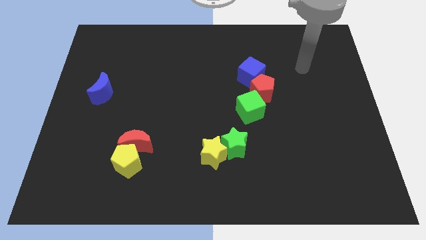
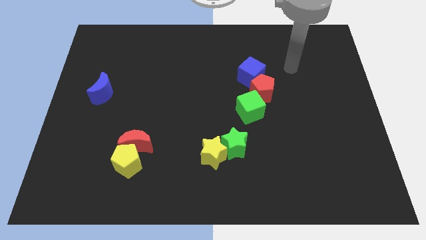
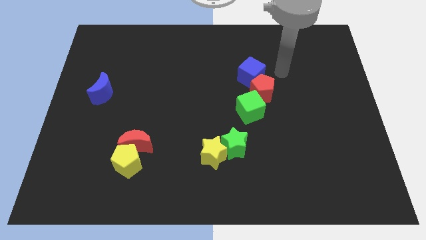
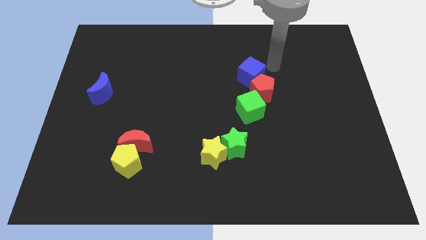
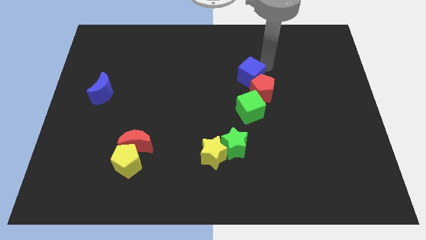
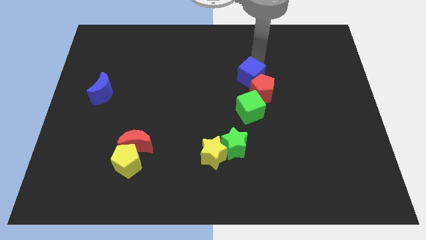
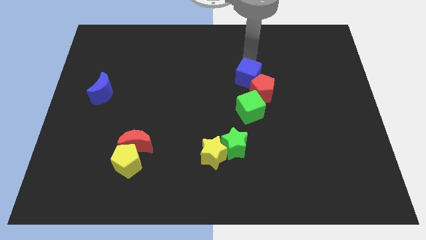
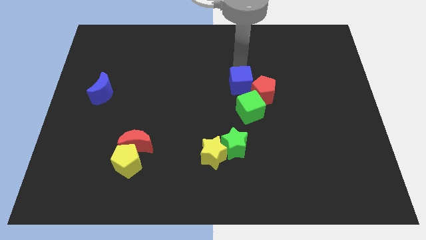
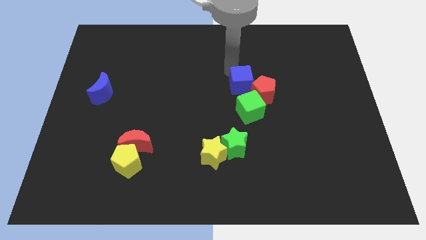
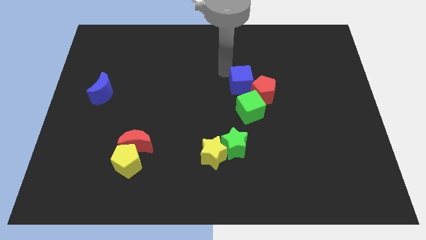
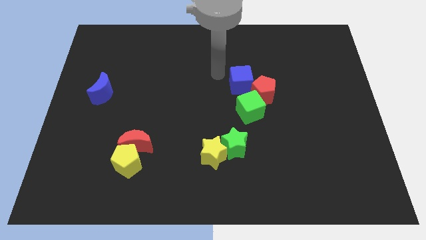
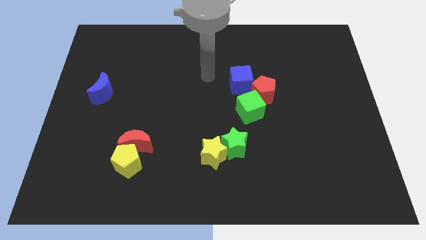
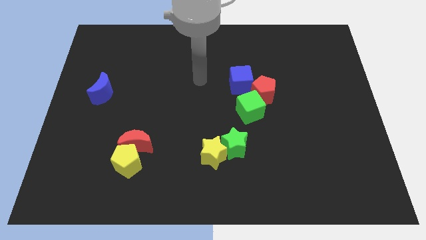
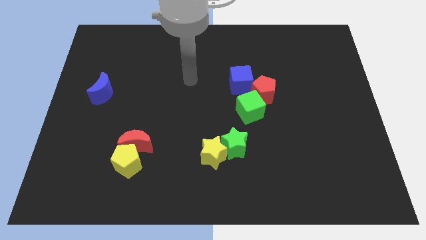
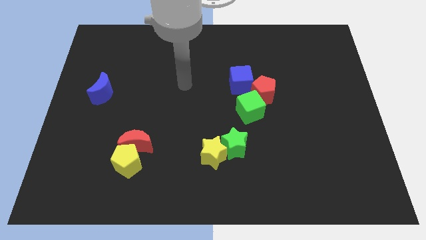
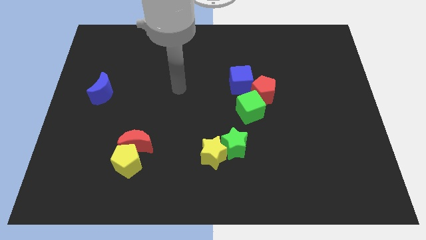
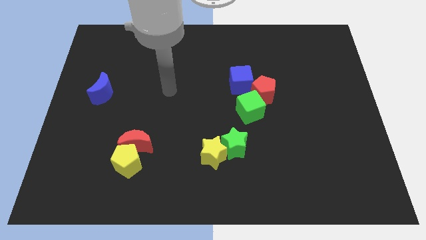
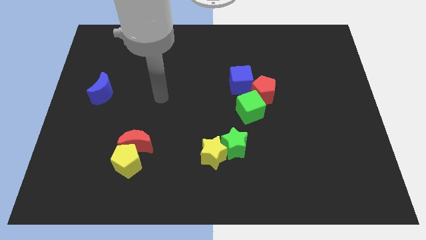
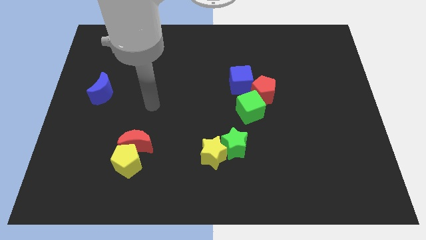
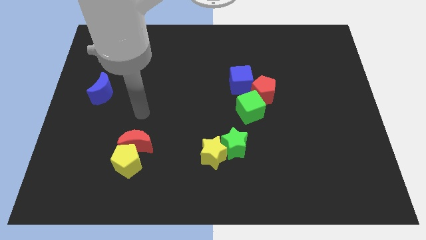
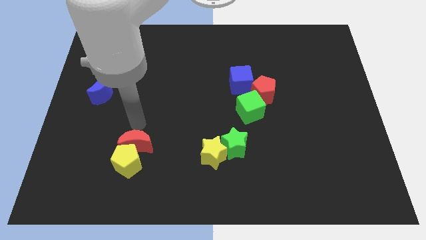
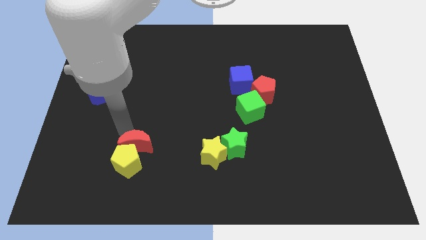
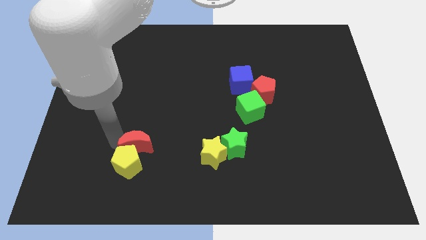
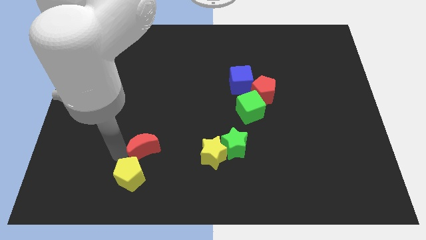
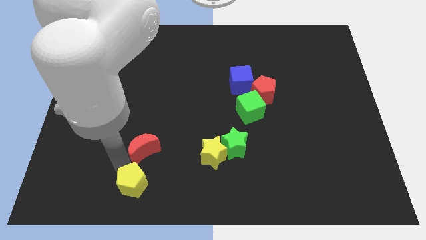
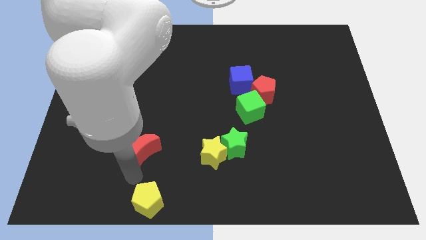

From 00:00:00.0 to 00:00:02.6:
move the red moon away from the yellow pentagon

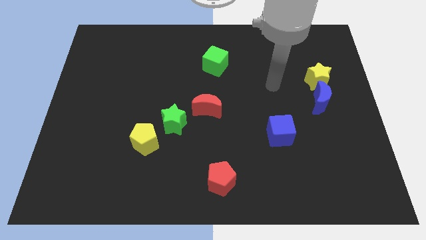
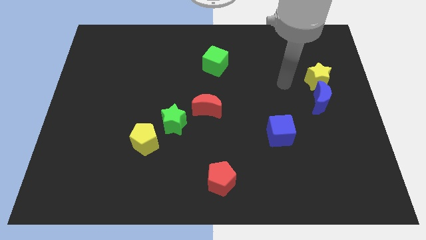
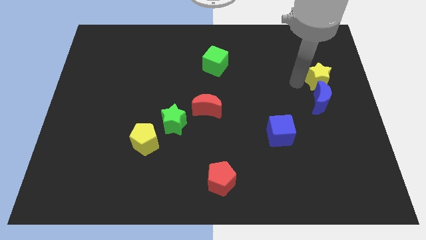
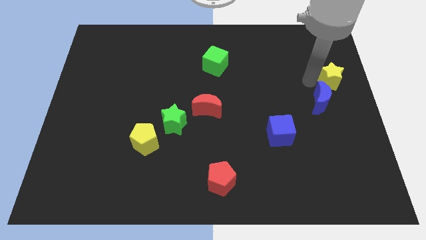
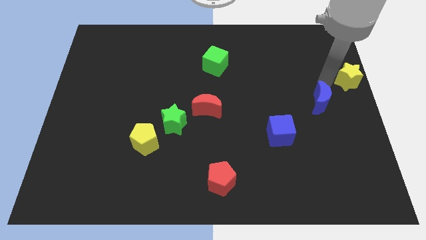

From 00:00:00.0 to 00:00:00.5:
move the blue moon away from the yellow star

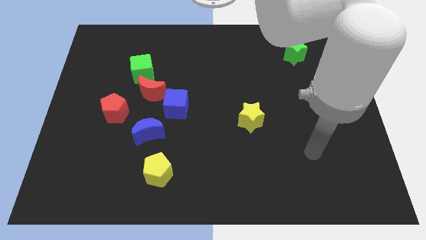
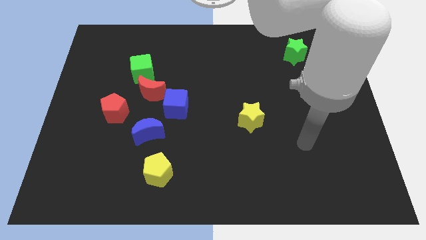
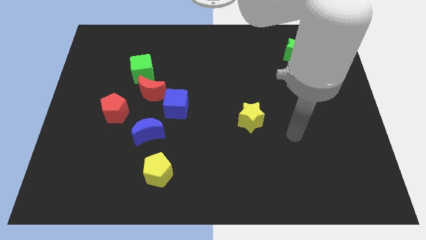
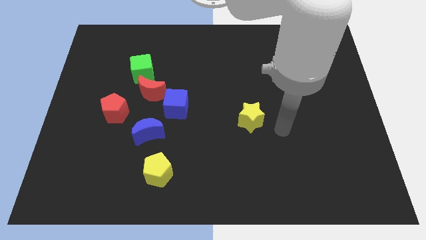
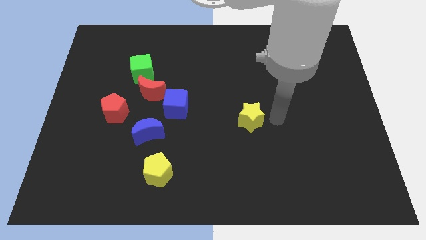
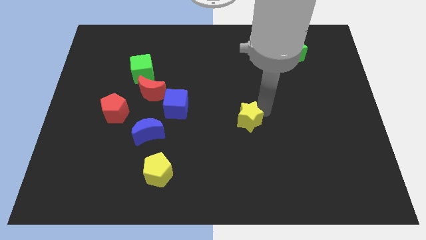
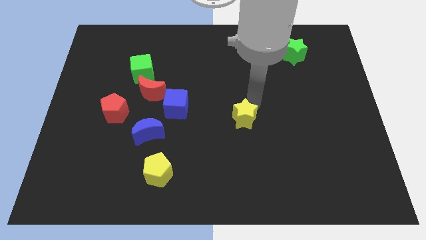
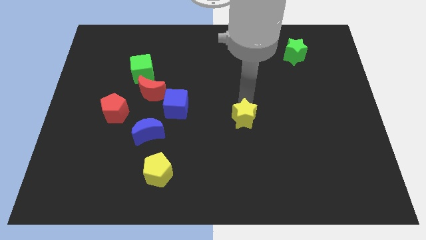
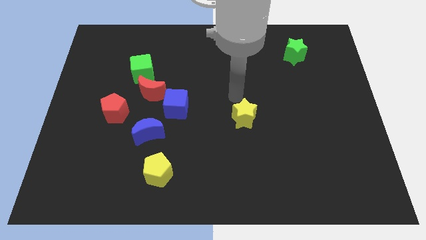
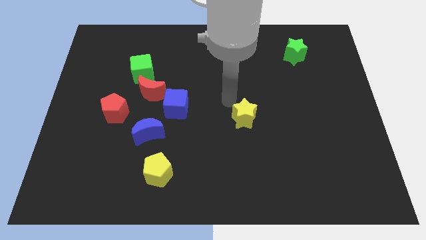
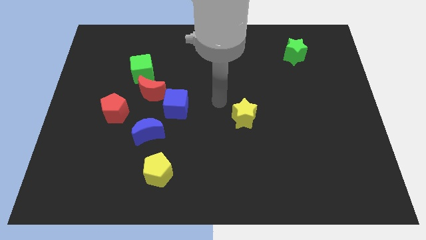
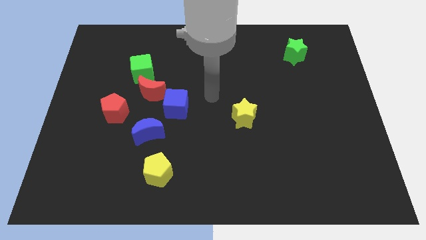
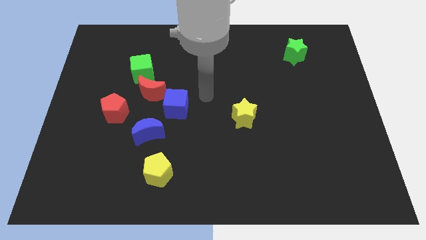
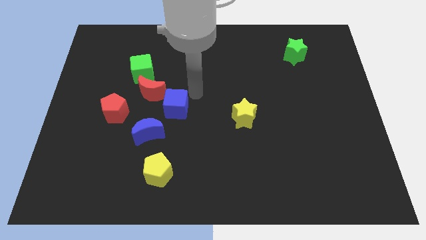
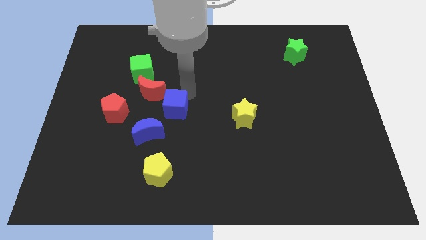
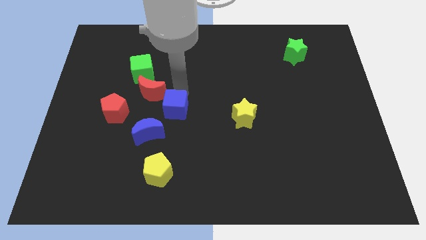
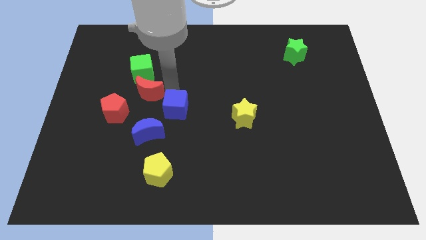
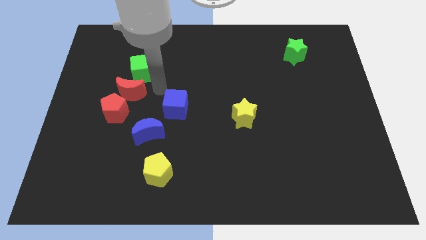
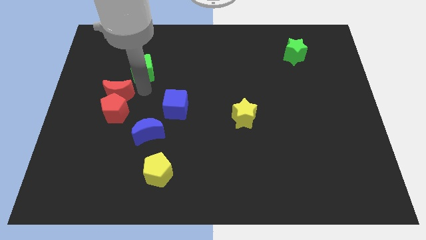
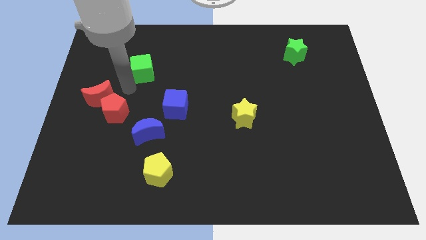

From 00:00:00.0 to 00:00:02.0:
separate the green cube from the red moon

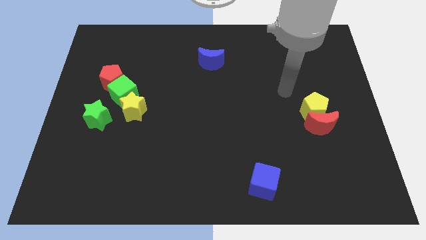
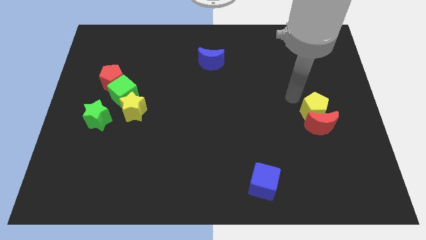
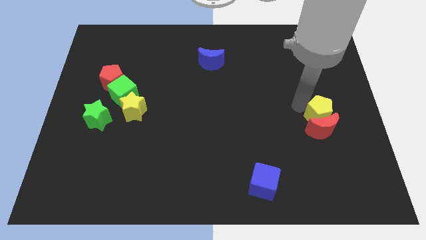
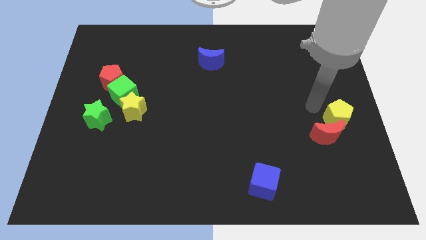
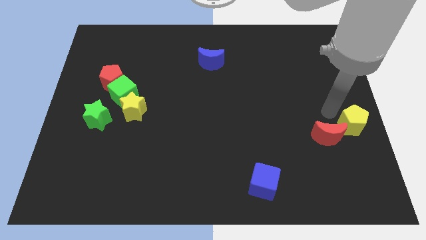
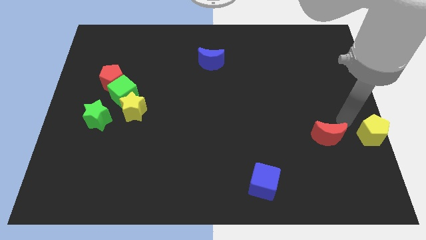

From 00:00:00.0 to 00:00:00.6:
pull the red moon apart from the yellow pentagon

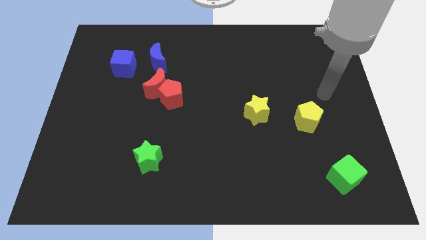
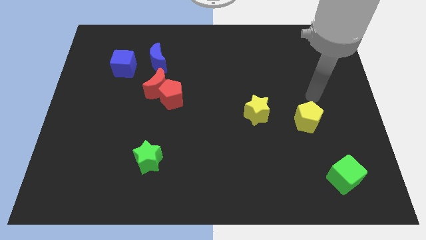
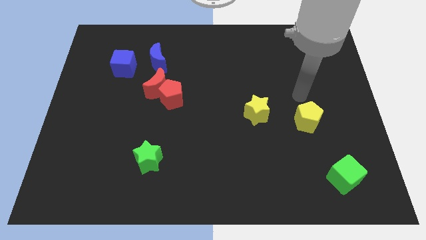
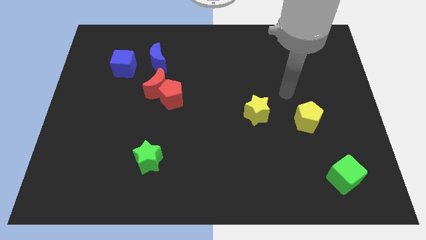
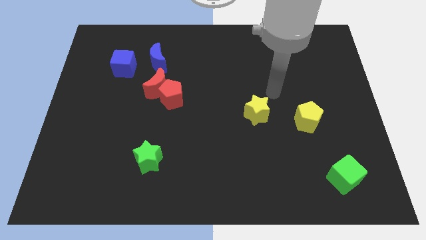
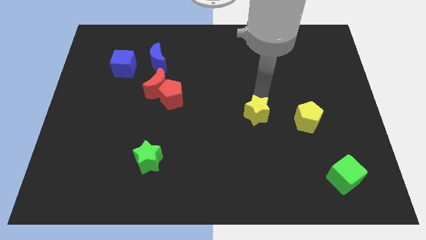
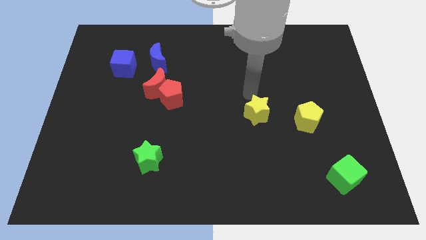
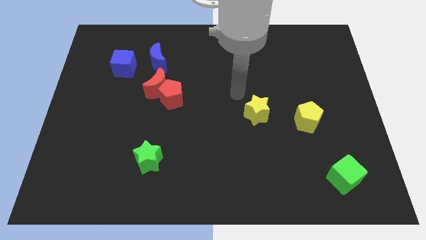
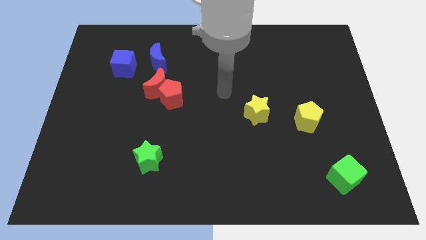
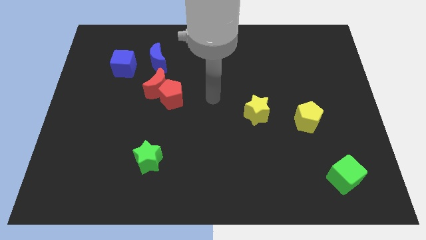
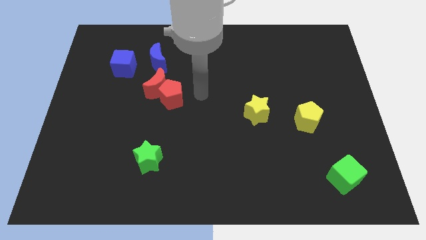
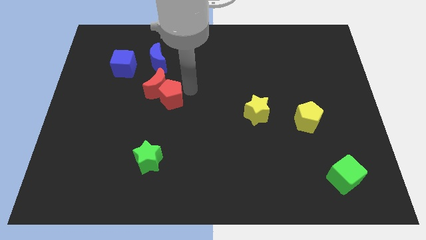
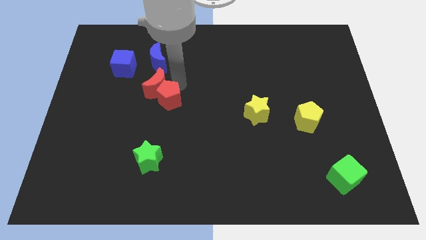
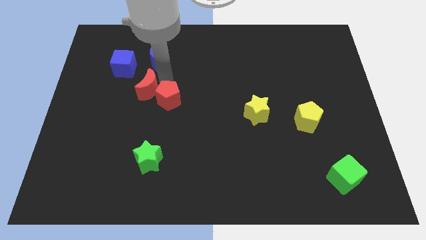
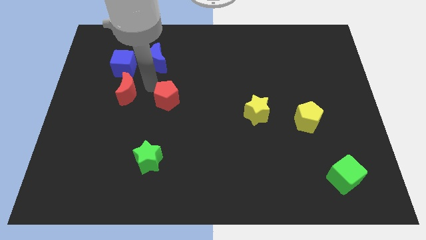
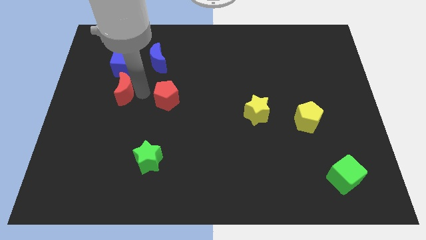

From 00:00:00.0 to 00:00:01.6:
pull the red pentagon apart from the red moon

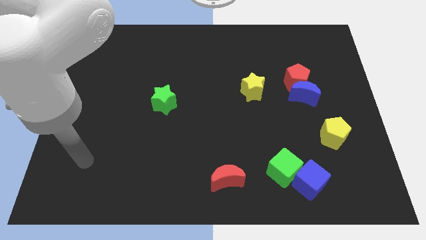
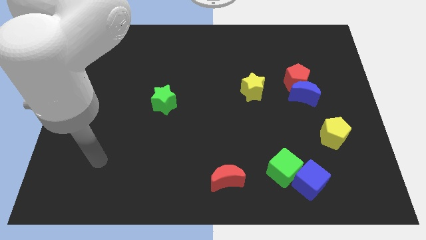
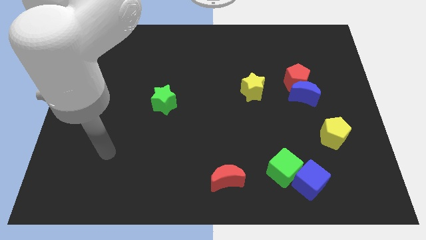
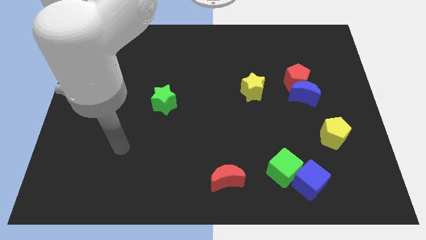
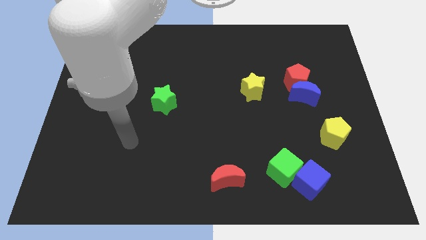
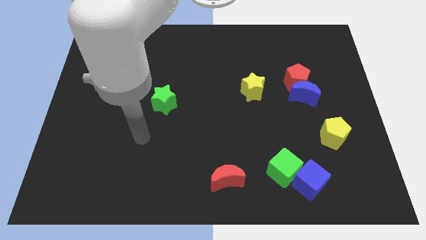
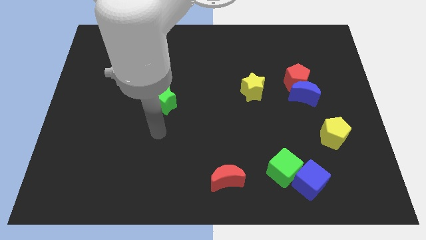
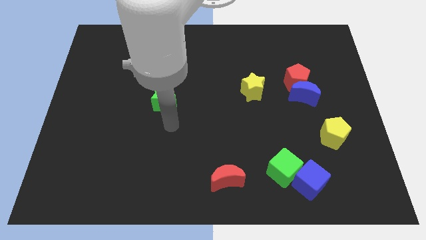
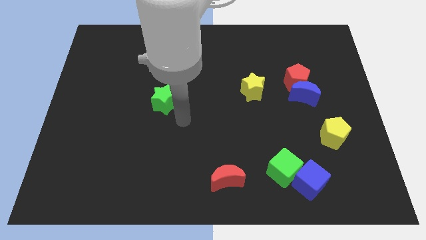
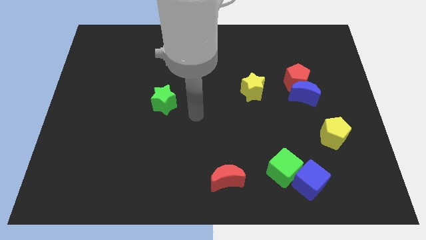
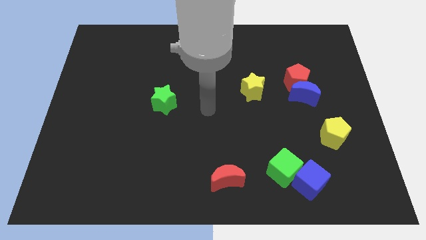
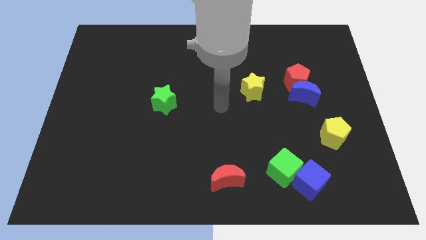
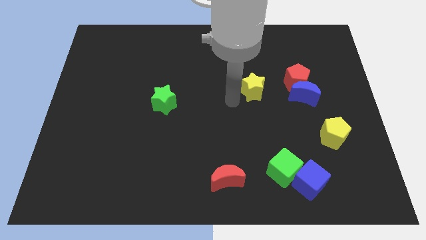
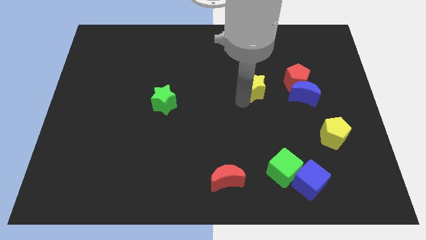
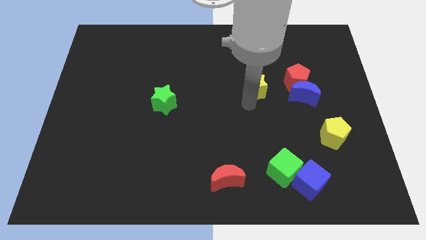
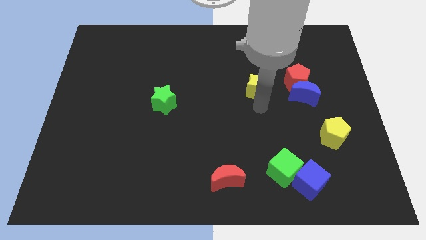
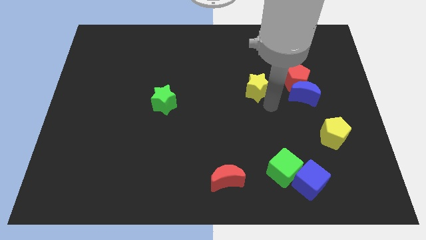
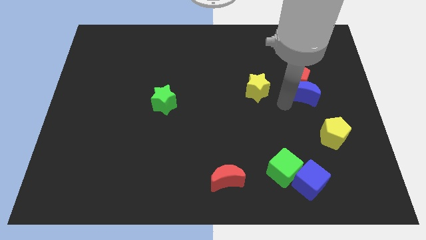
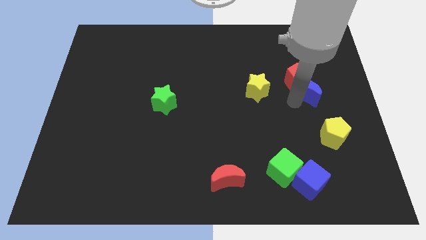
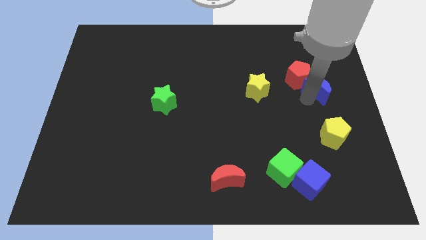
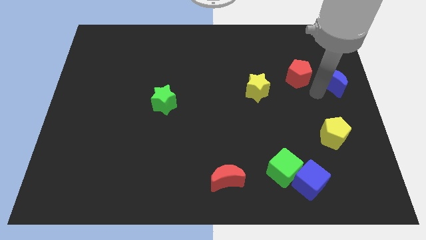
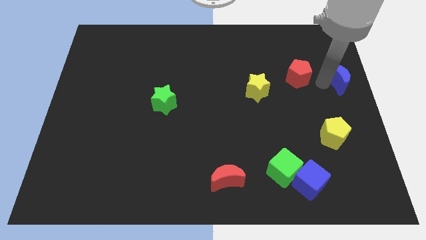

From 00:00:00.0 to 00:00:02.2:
move the red pentagon away from the blue moon
